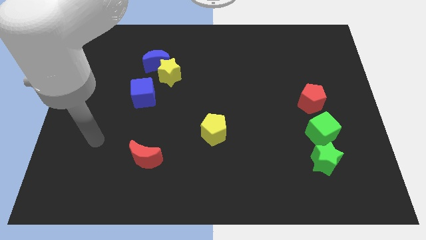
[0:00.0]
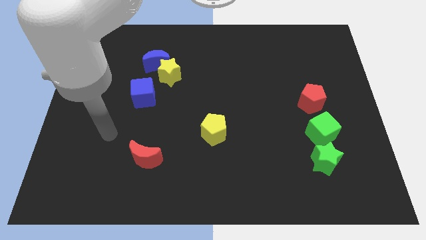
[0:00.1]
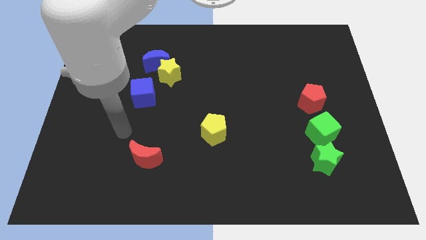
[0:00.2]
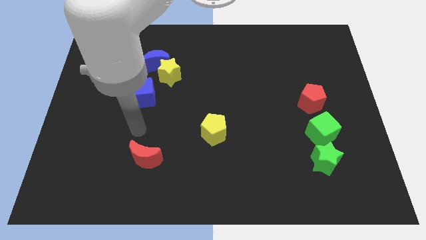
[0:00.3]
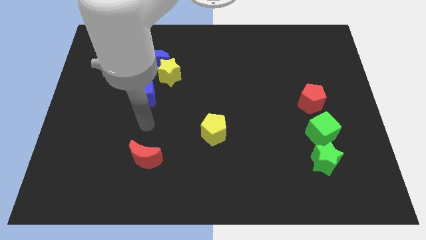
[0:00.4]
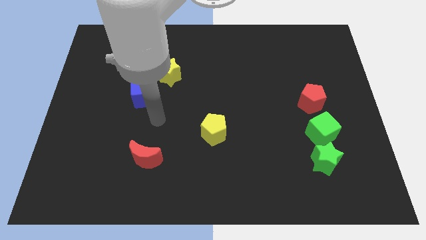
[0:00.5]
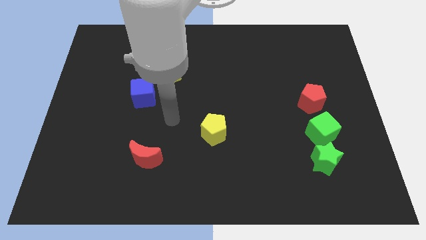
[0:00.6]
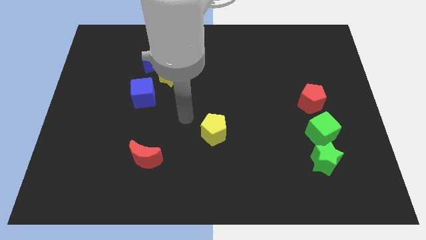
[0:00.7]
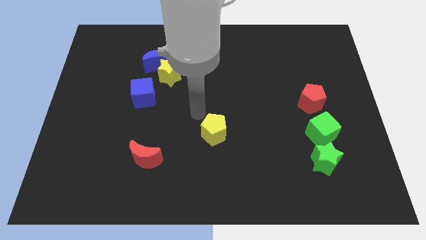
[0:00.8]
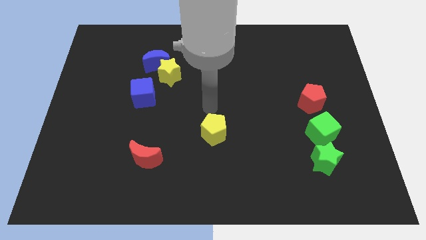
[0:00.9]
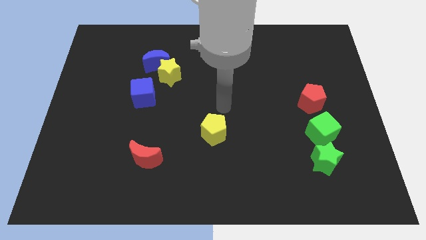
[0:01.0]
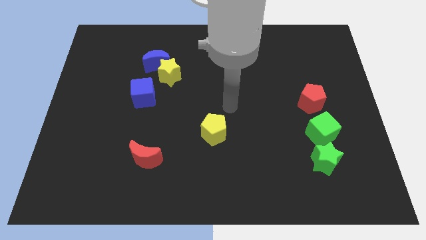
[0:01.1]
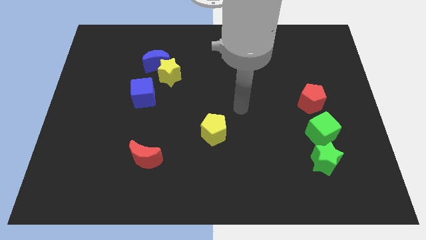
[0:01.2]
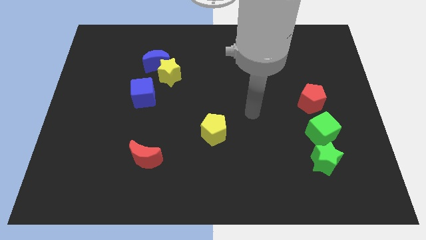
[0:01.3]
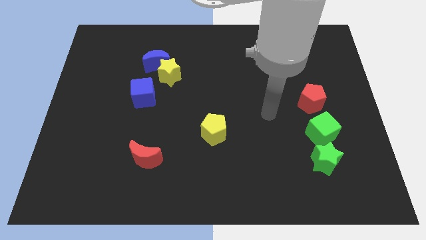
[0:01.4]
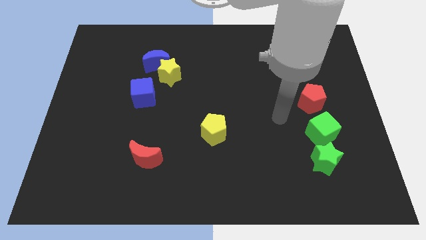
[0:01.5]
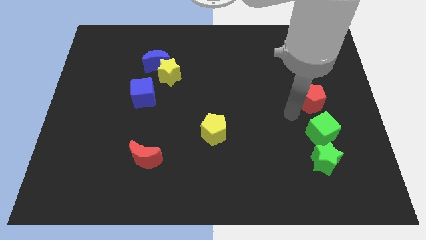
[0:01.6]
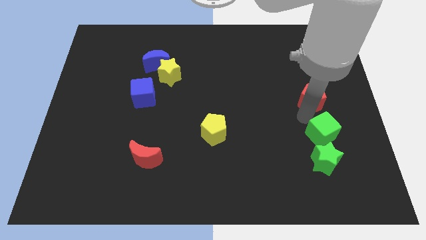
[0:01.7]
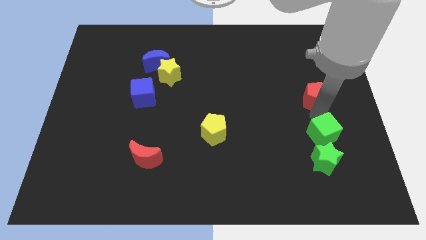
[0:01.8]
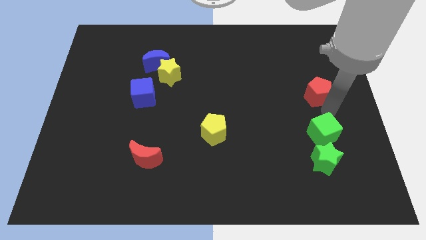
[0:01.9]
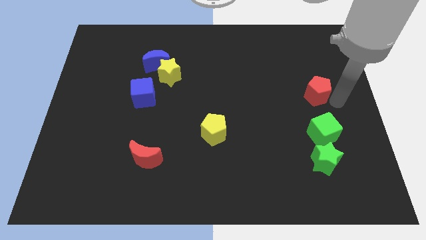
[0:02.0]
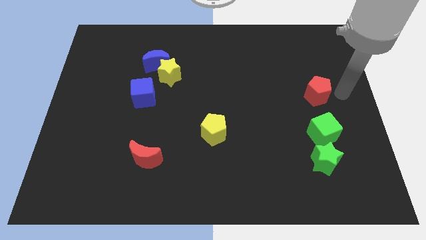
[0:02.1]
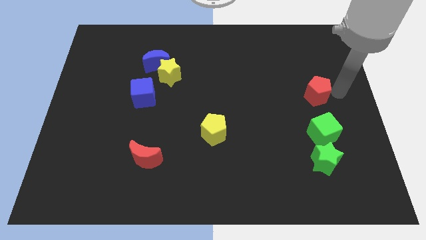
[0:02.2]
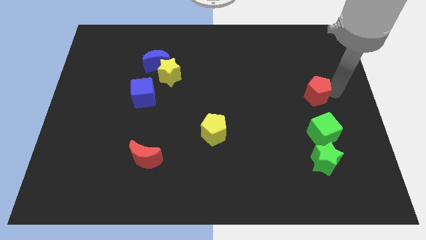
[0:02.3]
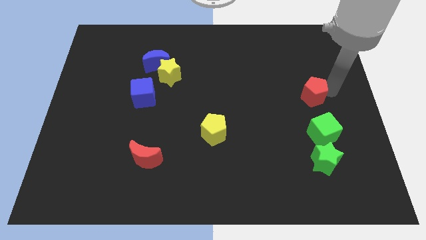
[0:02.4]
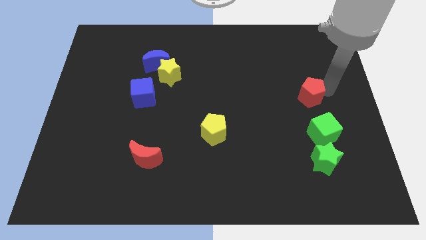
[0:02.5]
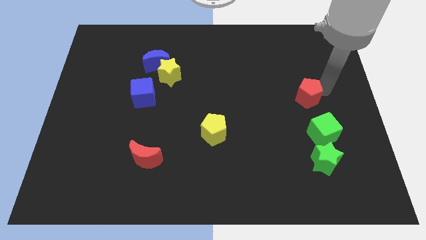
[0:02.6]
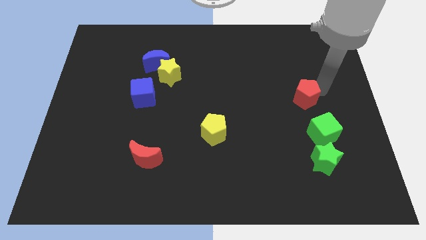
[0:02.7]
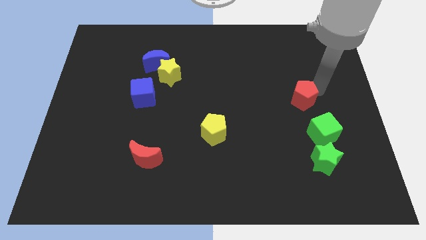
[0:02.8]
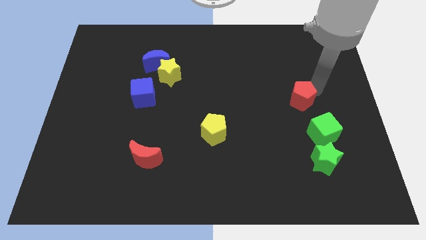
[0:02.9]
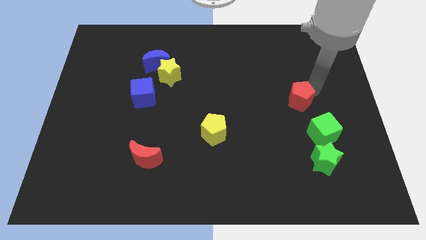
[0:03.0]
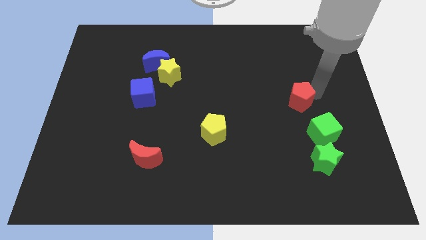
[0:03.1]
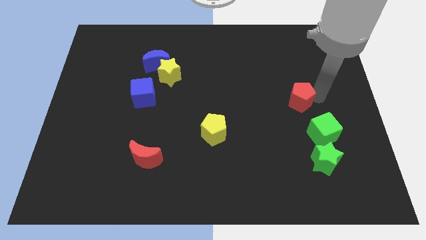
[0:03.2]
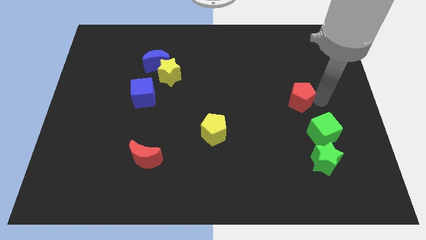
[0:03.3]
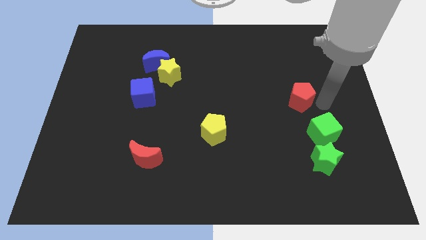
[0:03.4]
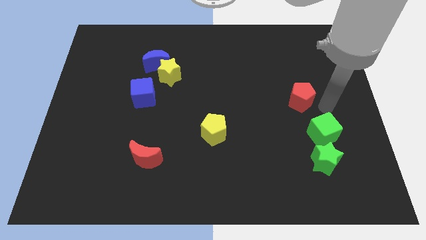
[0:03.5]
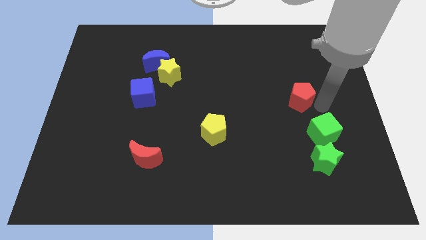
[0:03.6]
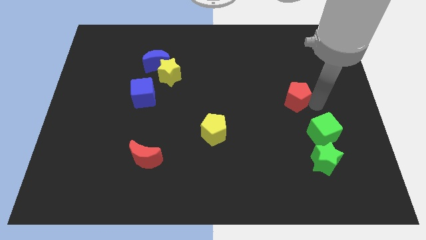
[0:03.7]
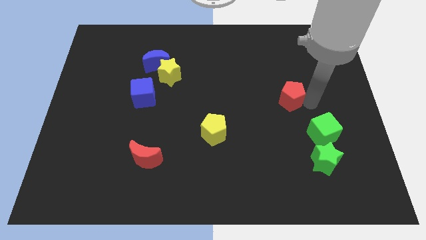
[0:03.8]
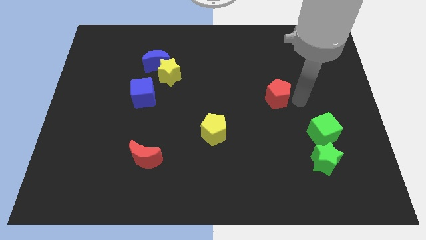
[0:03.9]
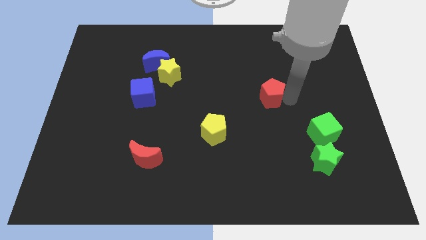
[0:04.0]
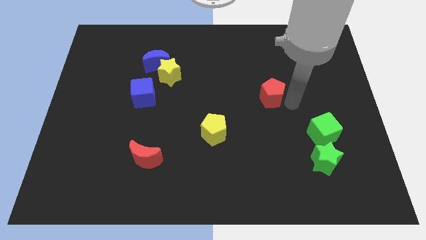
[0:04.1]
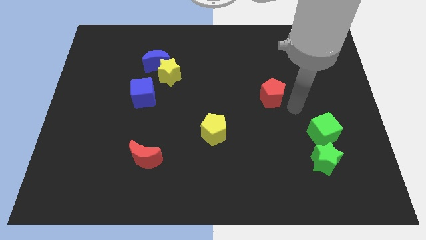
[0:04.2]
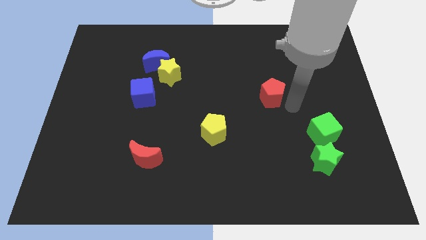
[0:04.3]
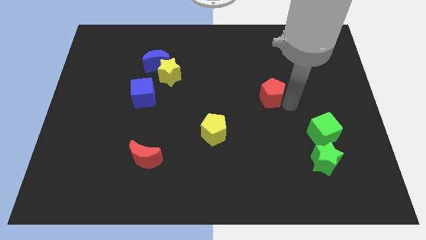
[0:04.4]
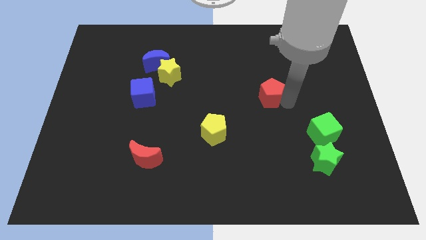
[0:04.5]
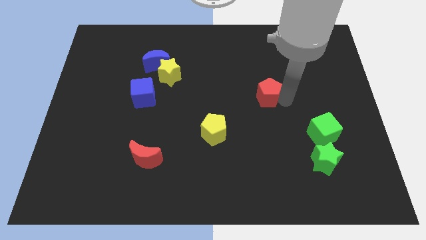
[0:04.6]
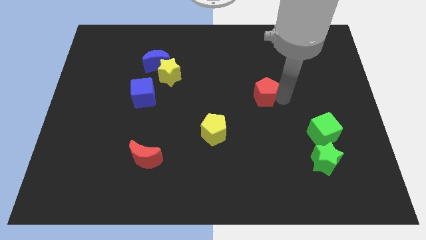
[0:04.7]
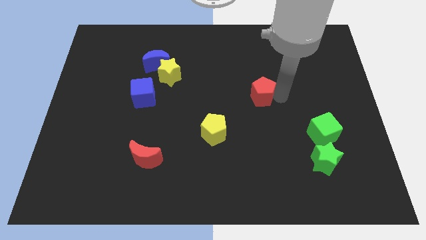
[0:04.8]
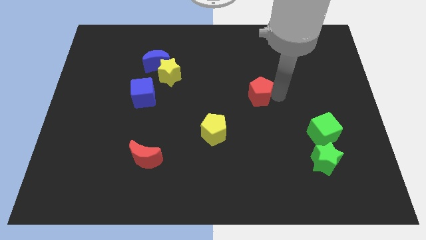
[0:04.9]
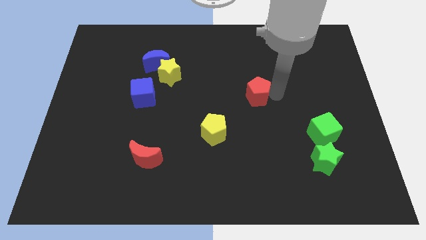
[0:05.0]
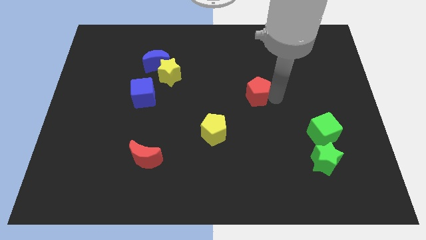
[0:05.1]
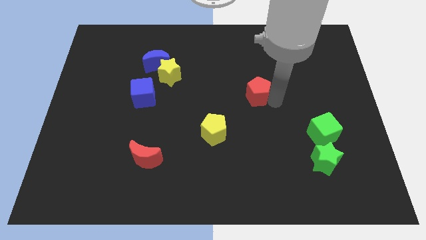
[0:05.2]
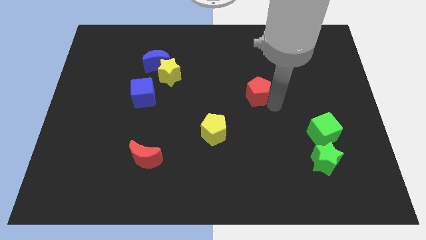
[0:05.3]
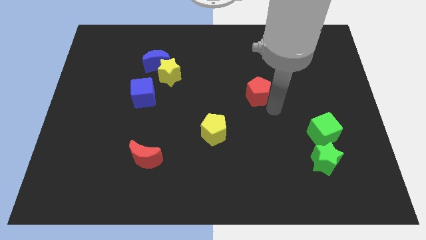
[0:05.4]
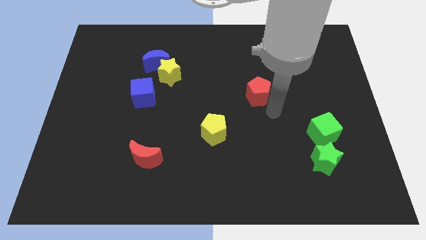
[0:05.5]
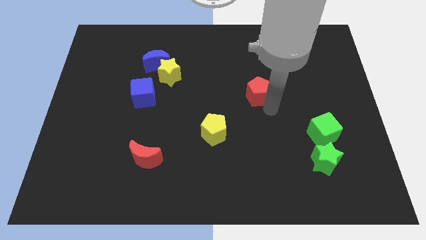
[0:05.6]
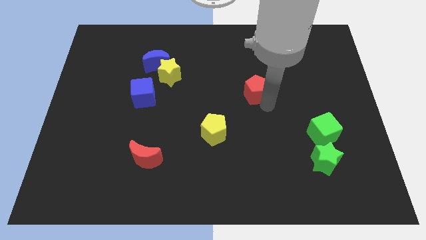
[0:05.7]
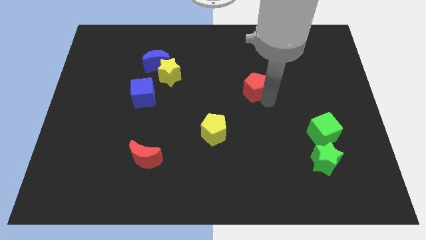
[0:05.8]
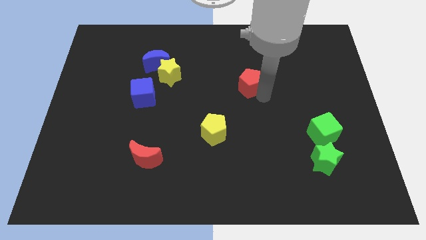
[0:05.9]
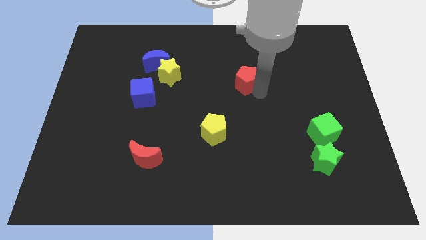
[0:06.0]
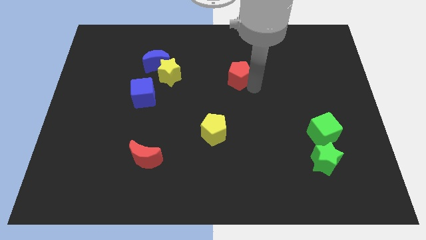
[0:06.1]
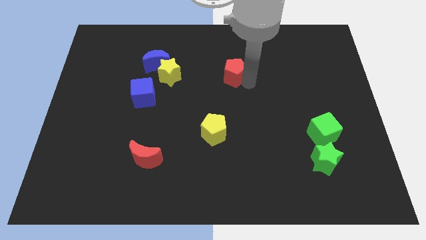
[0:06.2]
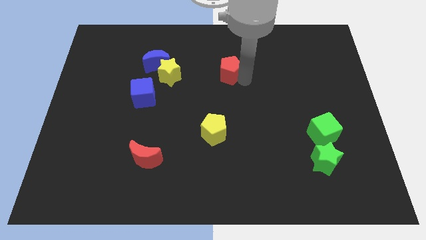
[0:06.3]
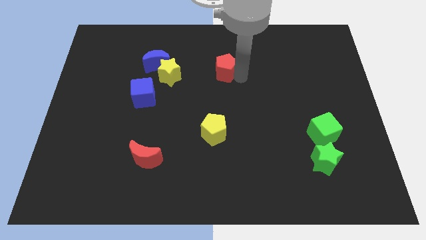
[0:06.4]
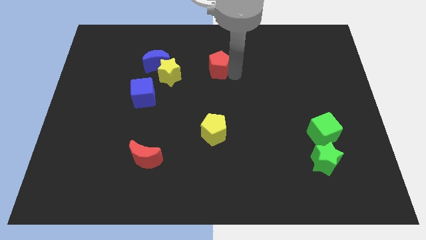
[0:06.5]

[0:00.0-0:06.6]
put the red pentagon to the right of the blue moon
